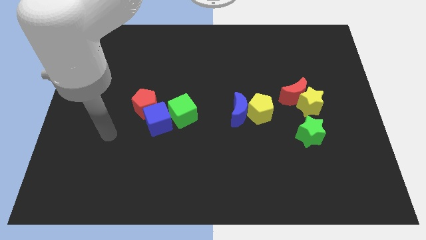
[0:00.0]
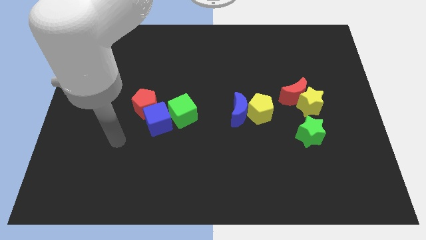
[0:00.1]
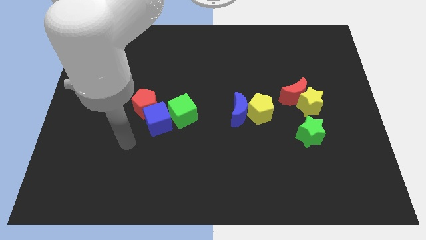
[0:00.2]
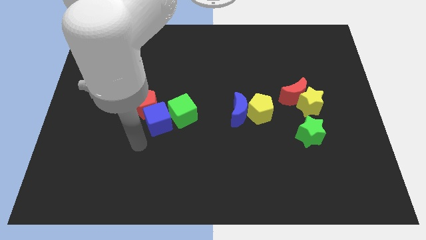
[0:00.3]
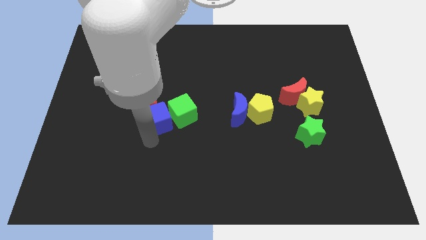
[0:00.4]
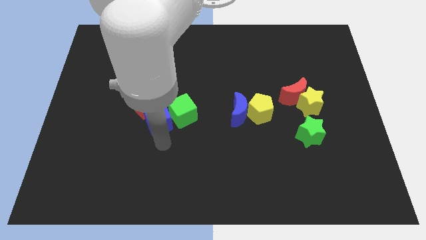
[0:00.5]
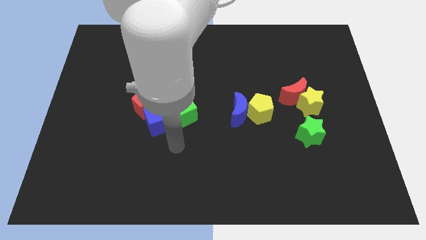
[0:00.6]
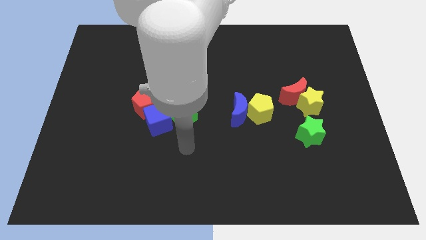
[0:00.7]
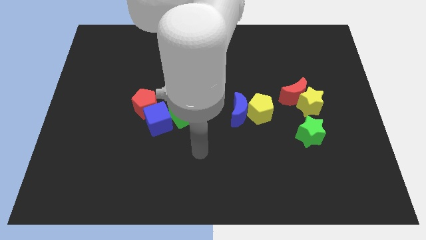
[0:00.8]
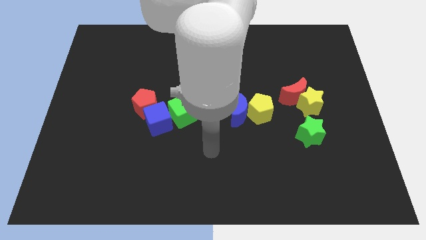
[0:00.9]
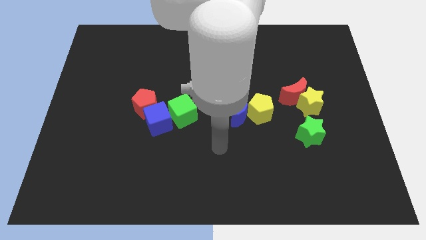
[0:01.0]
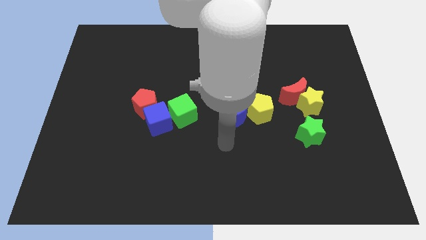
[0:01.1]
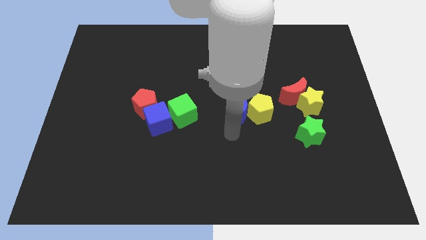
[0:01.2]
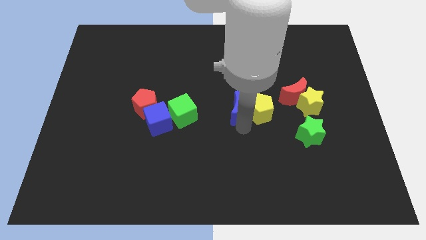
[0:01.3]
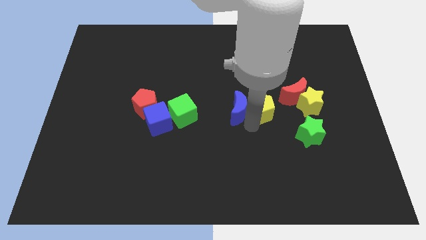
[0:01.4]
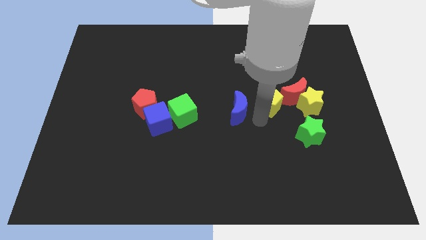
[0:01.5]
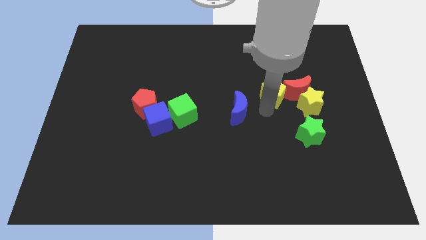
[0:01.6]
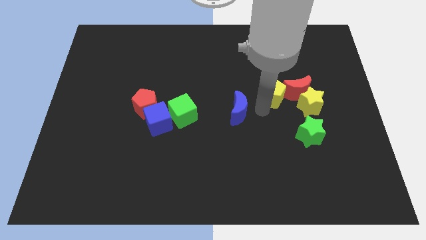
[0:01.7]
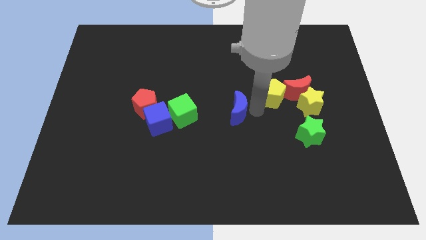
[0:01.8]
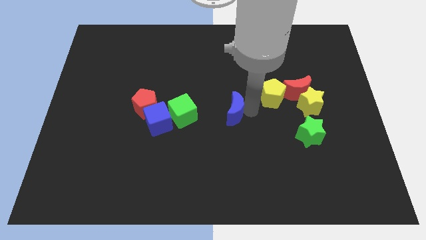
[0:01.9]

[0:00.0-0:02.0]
move the blue moon away from the yellow pentagon

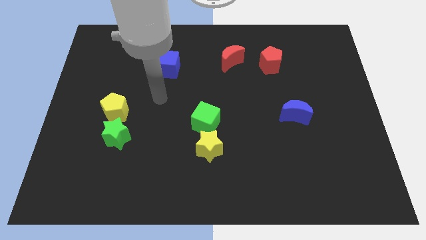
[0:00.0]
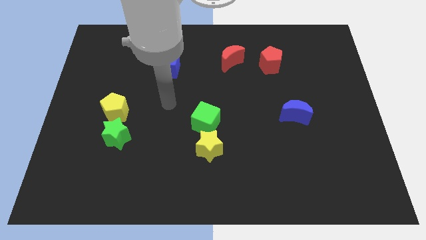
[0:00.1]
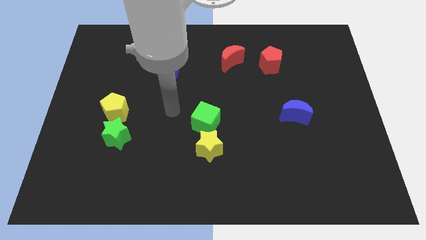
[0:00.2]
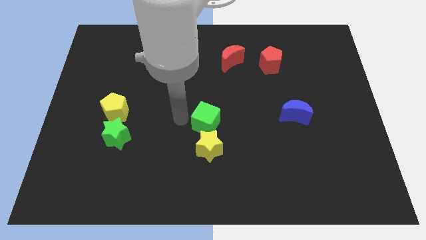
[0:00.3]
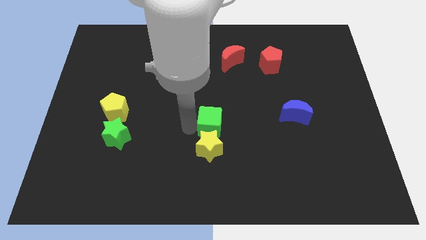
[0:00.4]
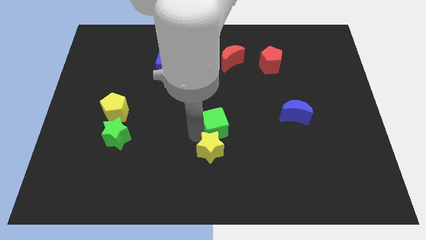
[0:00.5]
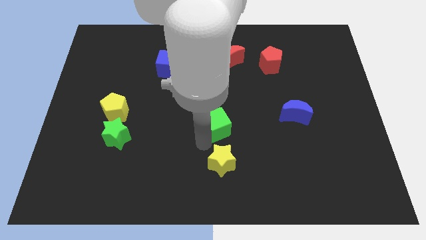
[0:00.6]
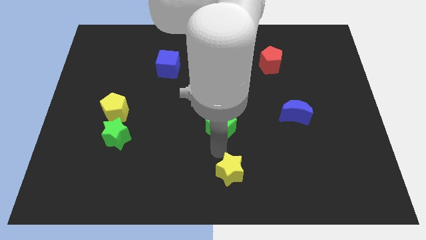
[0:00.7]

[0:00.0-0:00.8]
separate the green cube from the yellow star

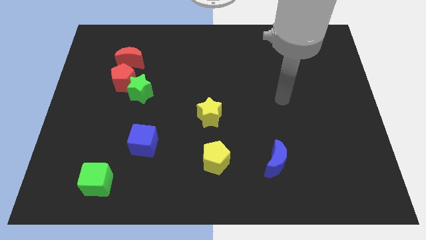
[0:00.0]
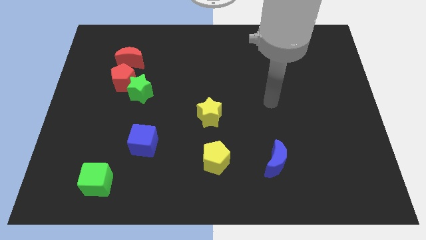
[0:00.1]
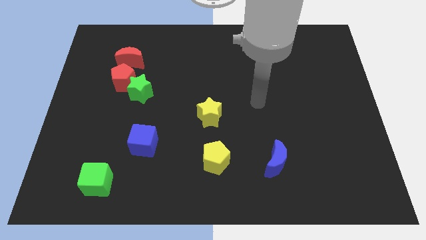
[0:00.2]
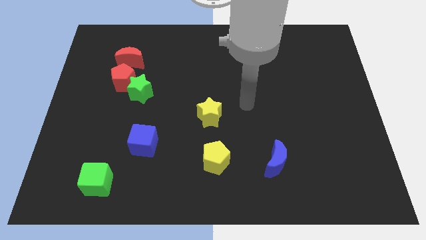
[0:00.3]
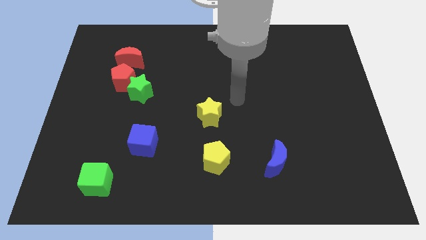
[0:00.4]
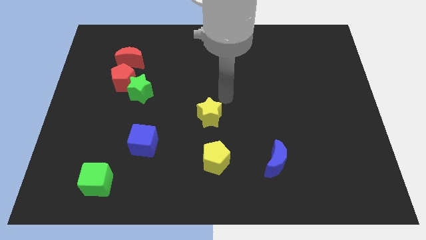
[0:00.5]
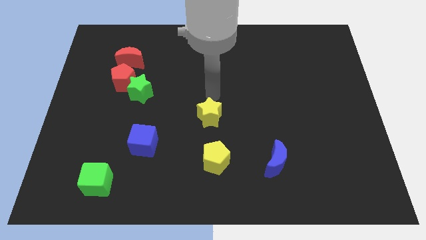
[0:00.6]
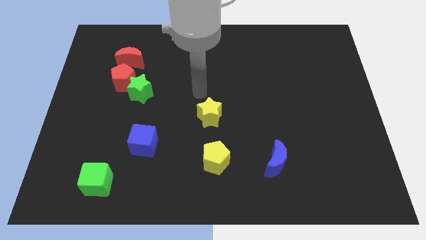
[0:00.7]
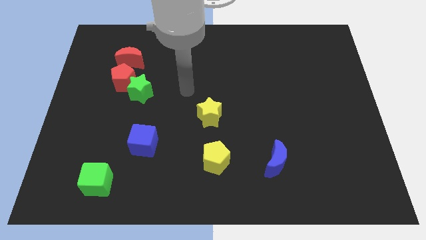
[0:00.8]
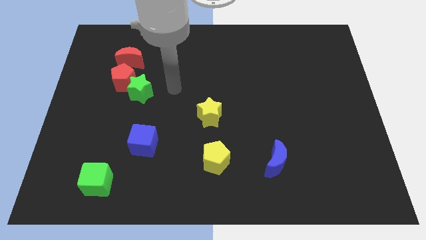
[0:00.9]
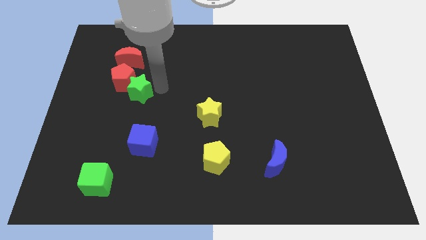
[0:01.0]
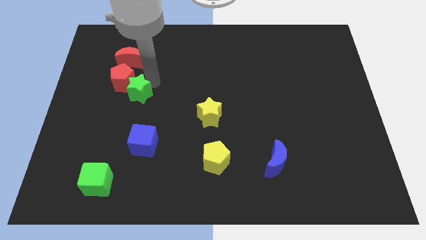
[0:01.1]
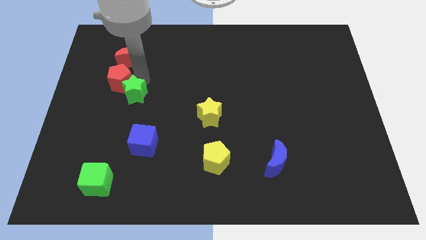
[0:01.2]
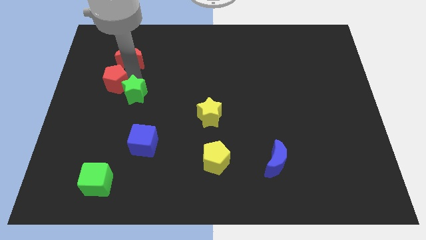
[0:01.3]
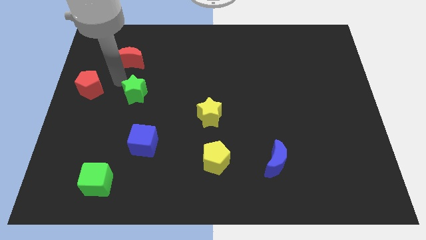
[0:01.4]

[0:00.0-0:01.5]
pull the green star apart from the red pentagon

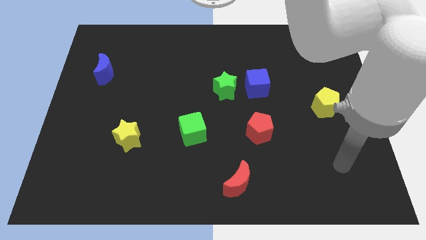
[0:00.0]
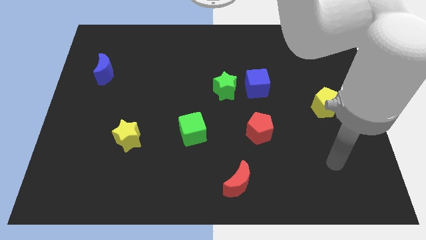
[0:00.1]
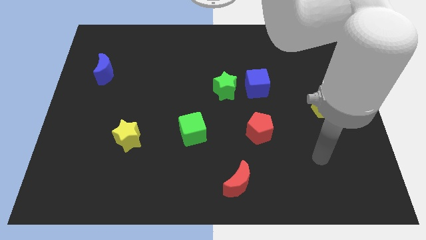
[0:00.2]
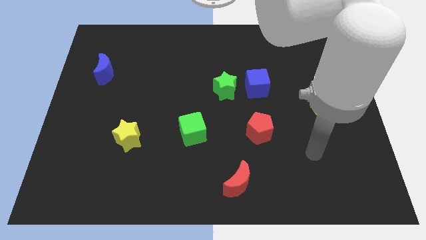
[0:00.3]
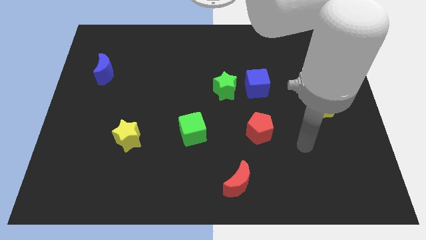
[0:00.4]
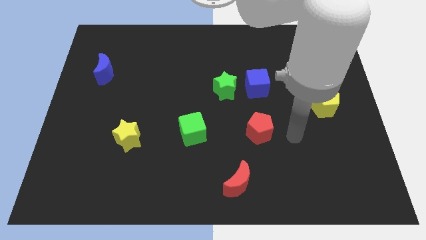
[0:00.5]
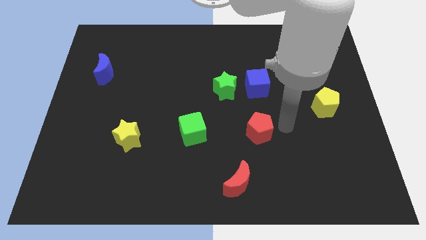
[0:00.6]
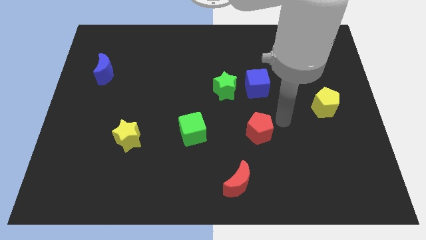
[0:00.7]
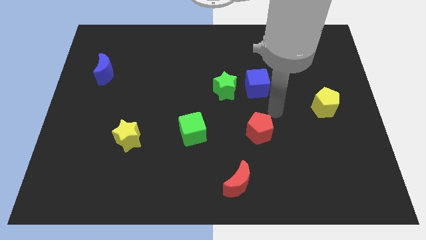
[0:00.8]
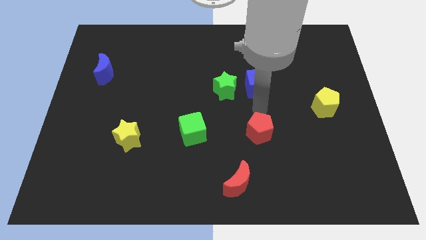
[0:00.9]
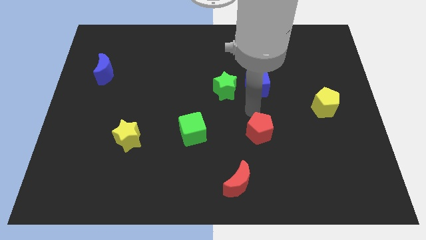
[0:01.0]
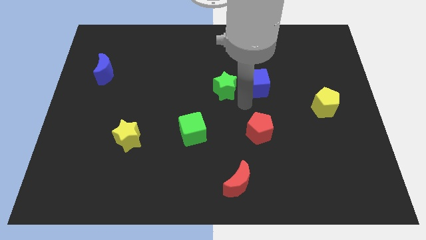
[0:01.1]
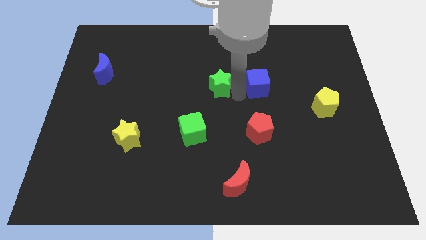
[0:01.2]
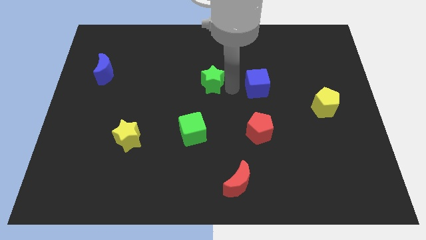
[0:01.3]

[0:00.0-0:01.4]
separate the blue cube from the green star

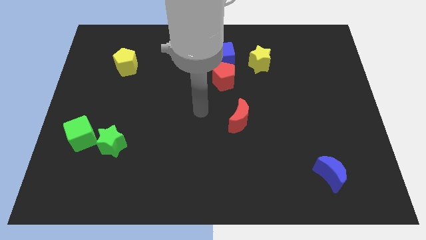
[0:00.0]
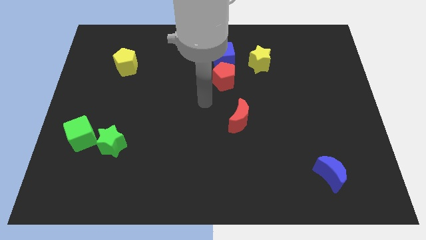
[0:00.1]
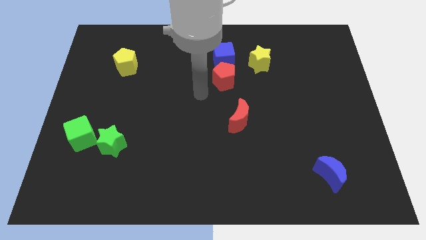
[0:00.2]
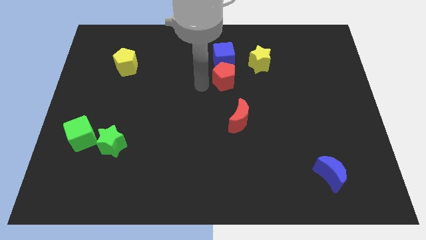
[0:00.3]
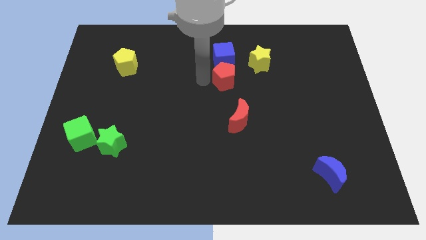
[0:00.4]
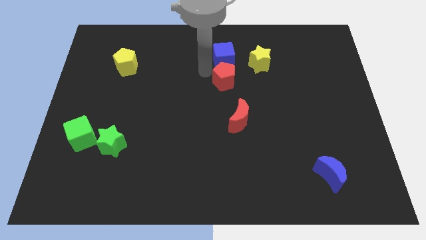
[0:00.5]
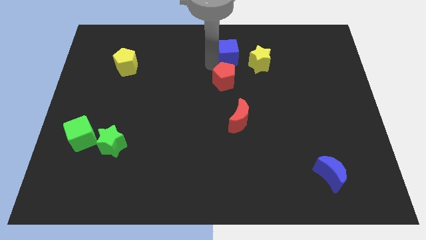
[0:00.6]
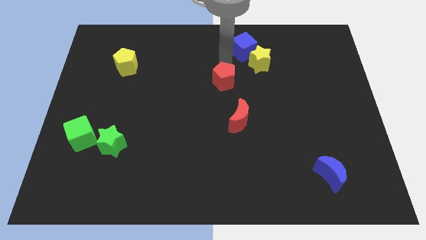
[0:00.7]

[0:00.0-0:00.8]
move the red pentagon away from the blue cube

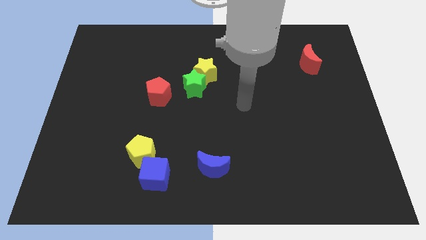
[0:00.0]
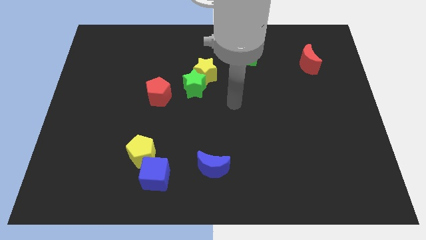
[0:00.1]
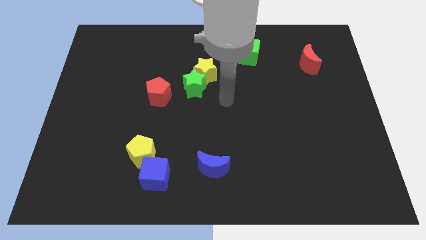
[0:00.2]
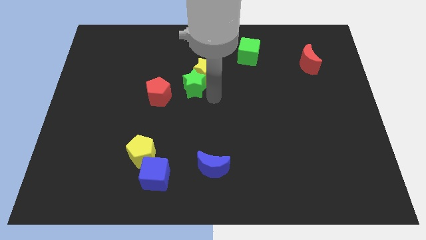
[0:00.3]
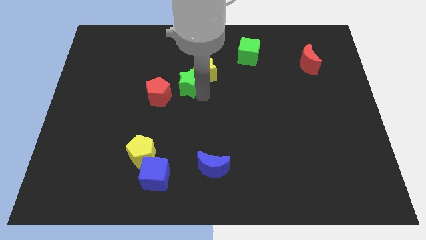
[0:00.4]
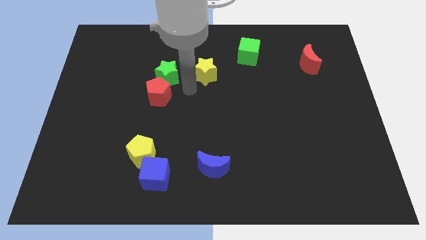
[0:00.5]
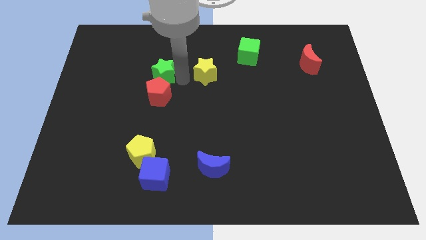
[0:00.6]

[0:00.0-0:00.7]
pull the yellow star apart from the green star

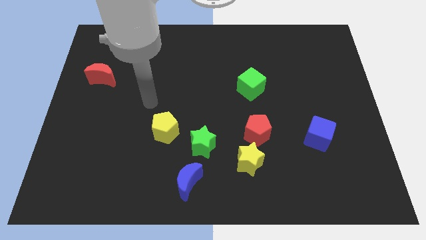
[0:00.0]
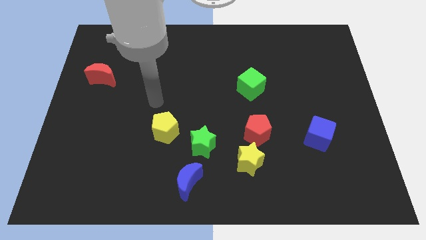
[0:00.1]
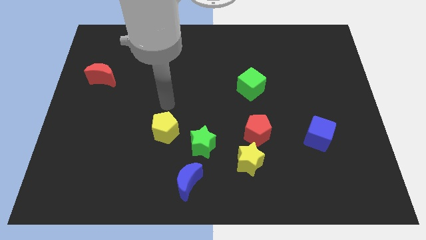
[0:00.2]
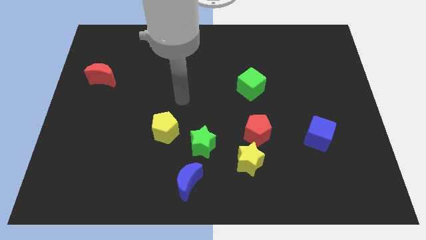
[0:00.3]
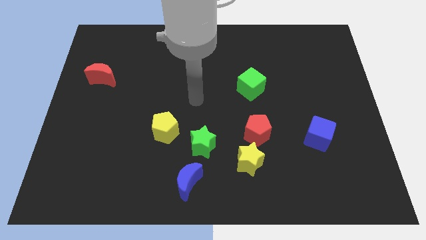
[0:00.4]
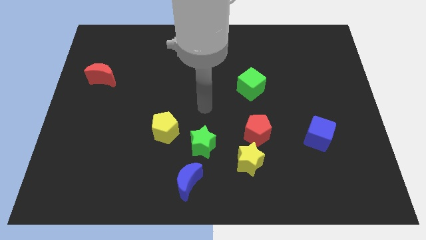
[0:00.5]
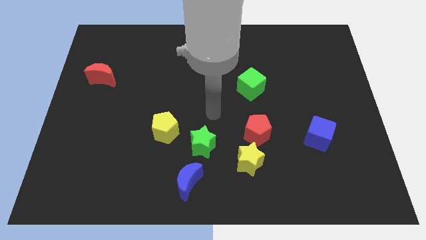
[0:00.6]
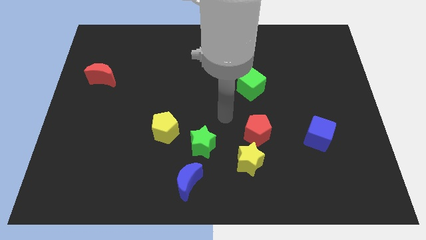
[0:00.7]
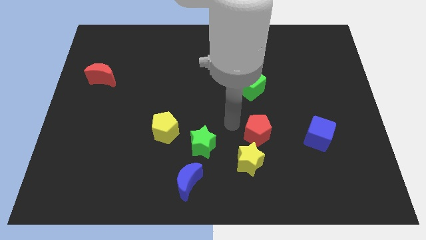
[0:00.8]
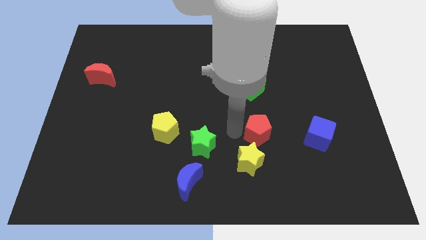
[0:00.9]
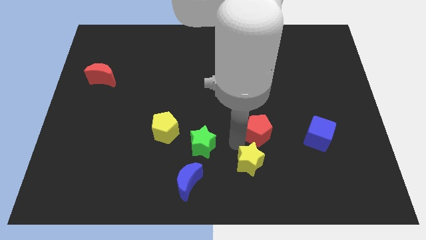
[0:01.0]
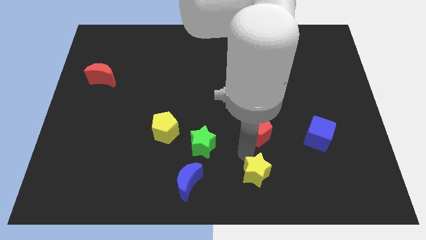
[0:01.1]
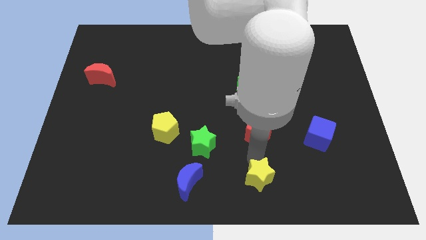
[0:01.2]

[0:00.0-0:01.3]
separate the red pentagon from the yellow star

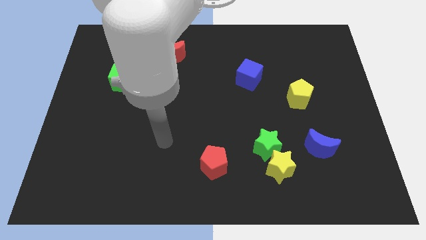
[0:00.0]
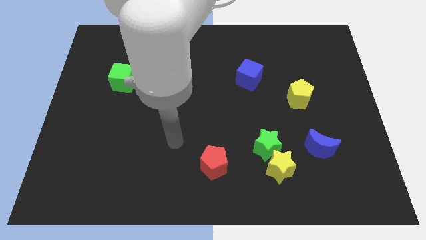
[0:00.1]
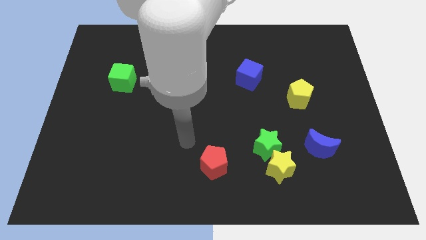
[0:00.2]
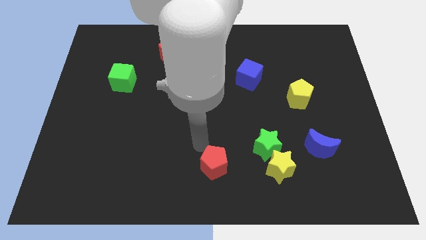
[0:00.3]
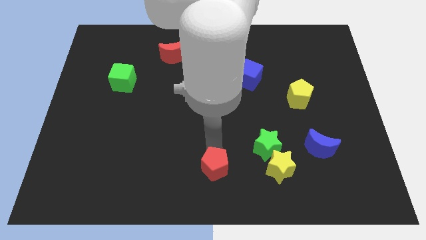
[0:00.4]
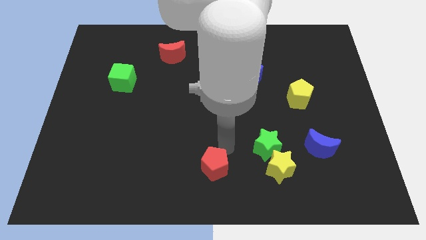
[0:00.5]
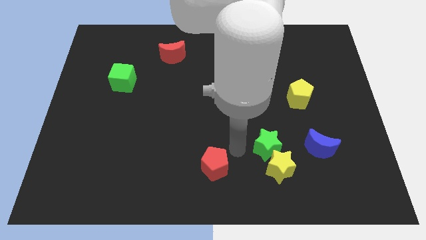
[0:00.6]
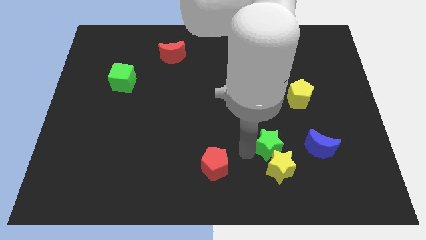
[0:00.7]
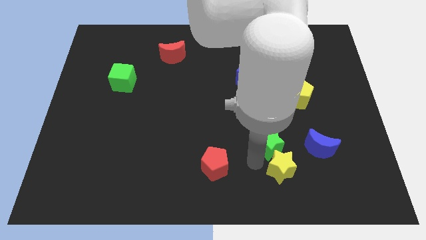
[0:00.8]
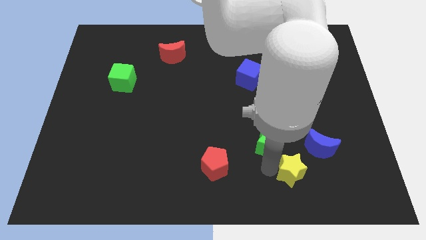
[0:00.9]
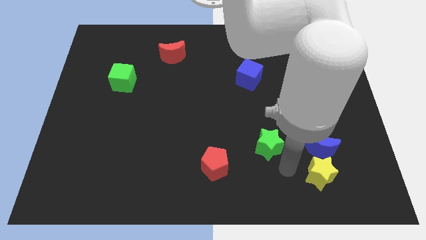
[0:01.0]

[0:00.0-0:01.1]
move the green star away from the yellow star
